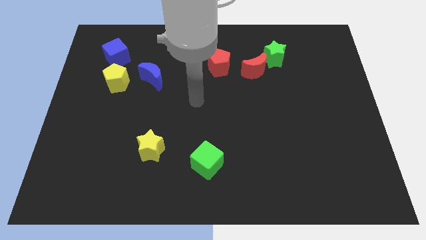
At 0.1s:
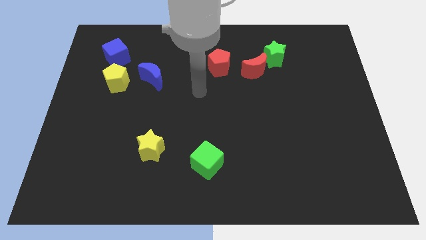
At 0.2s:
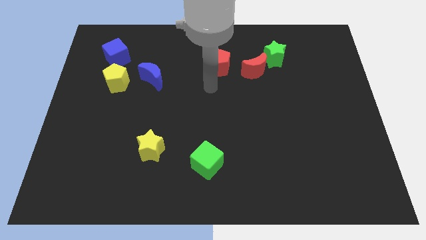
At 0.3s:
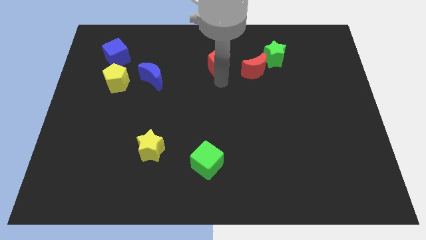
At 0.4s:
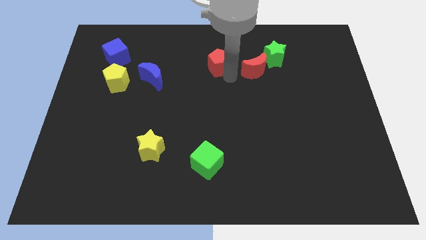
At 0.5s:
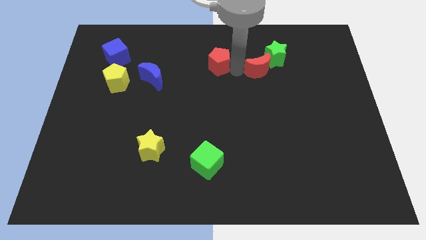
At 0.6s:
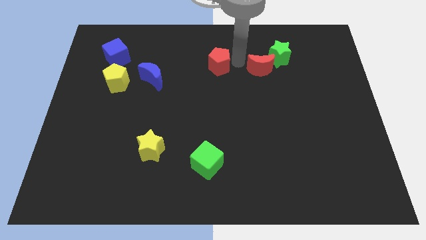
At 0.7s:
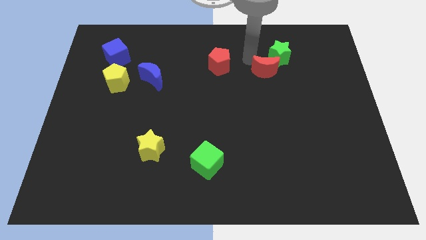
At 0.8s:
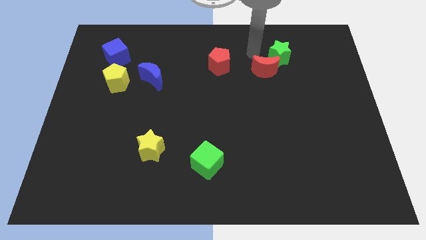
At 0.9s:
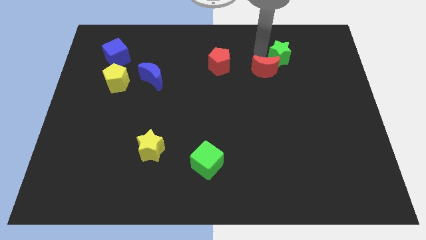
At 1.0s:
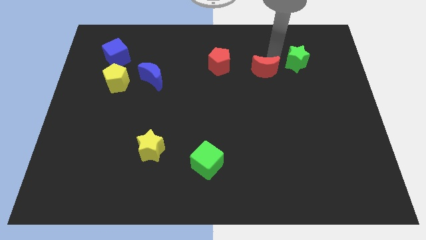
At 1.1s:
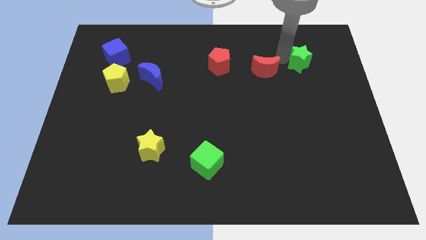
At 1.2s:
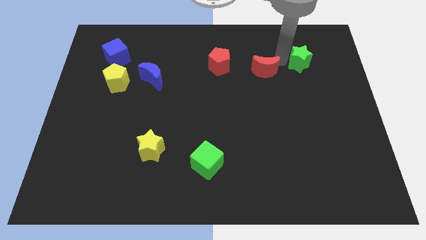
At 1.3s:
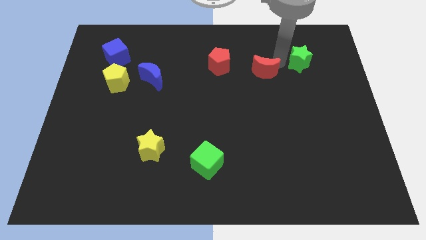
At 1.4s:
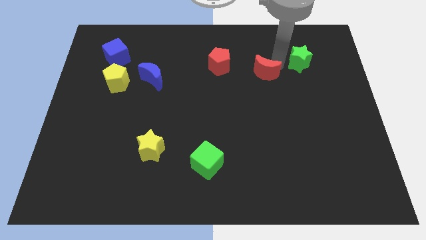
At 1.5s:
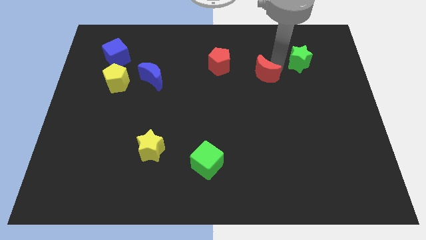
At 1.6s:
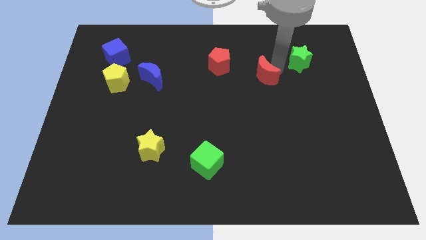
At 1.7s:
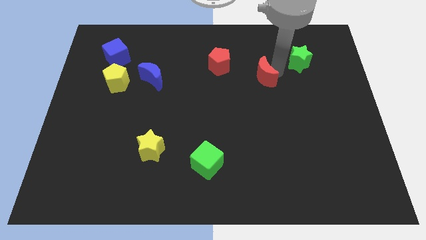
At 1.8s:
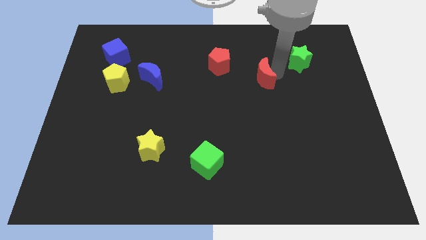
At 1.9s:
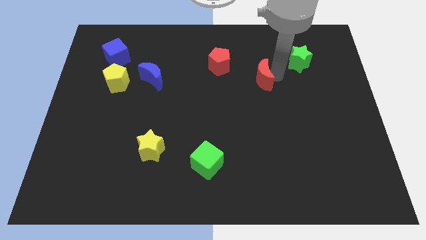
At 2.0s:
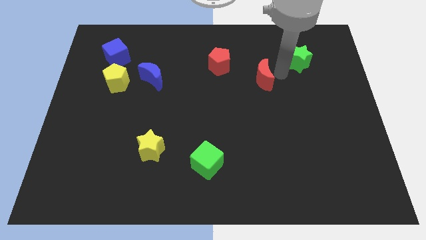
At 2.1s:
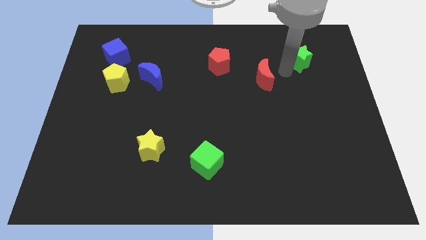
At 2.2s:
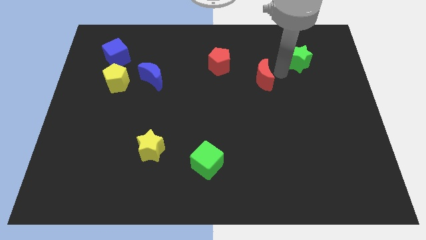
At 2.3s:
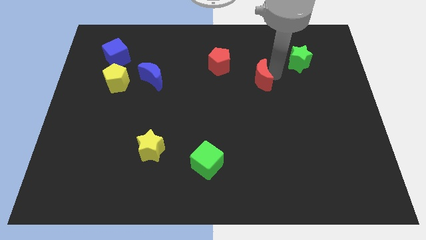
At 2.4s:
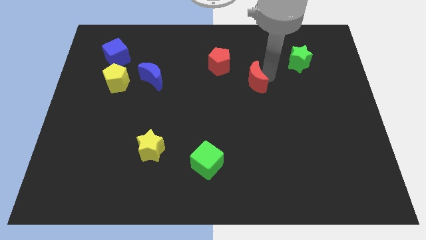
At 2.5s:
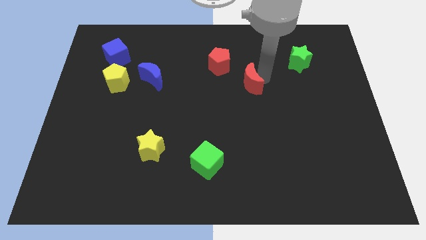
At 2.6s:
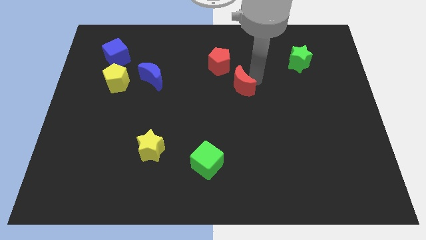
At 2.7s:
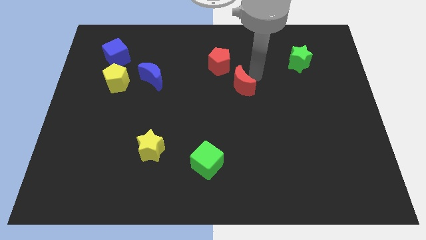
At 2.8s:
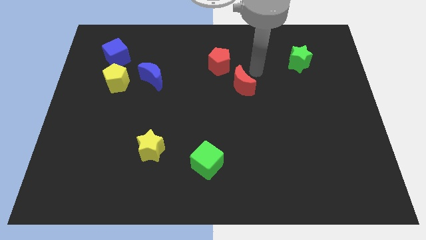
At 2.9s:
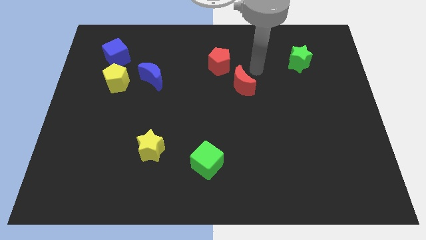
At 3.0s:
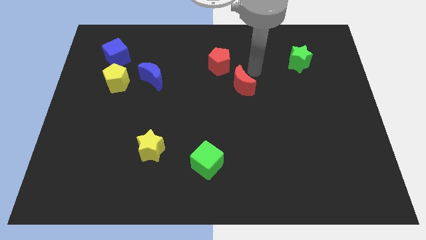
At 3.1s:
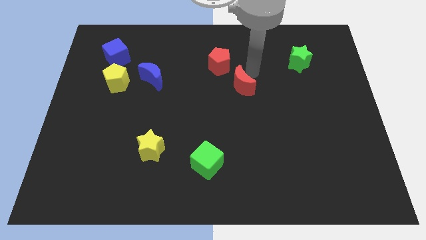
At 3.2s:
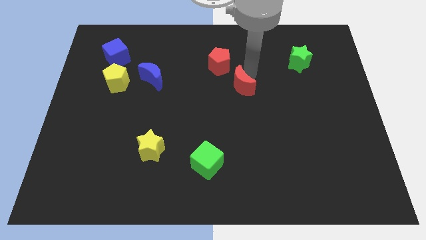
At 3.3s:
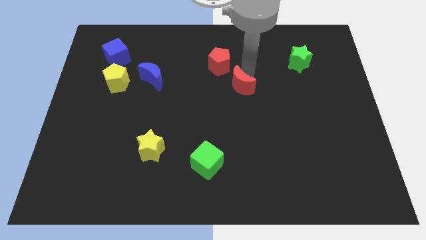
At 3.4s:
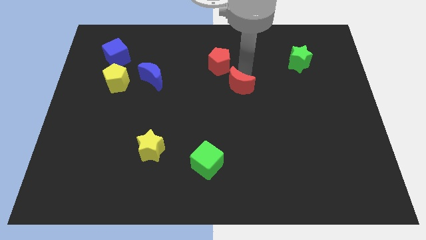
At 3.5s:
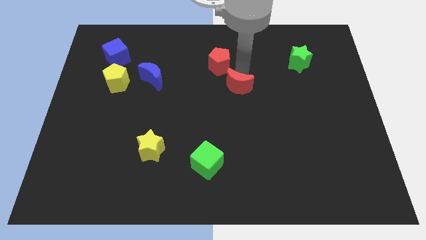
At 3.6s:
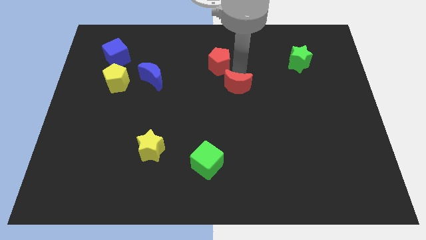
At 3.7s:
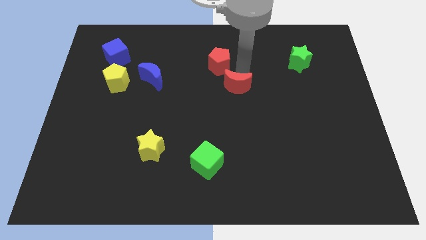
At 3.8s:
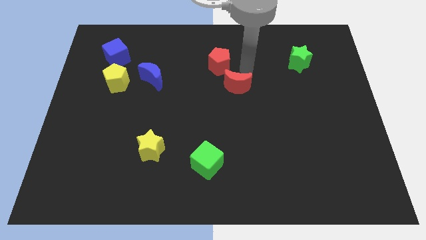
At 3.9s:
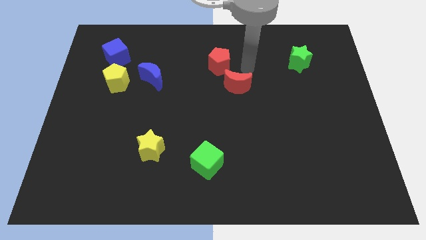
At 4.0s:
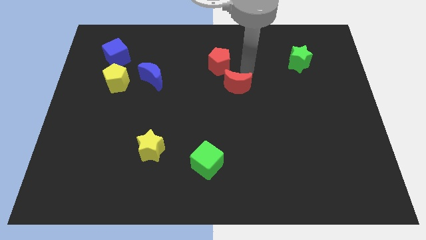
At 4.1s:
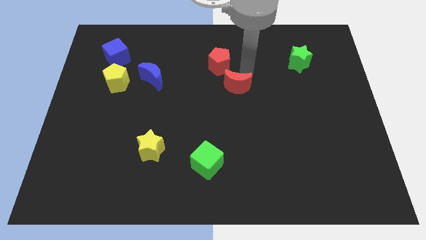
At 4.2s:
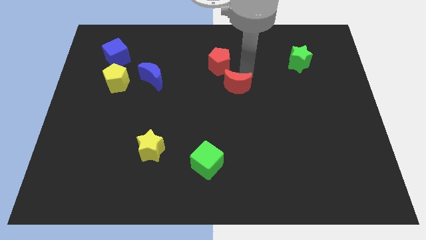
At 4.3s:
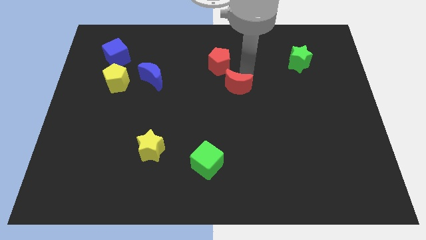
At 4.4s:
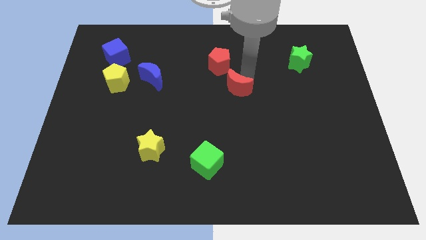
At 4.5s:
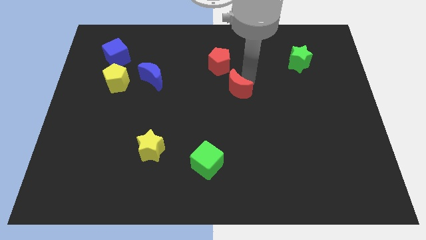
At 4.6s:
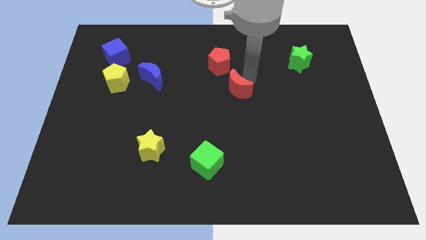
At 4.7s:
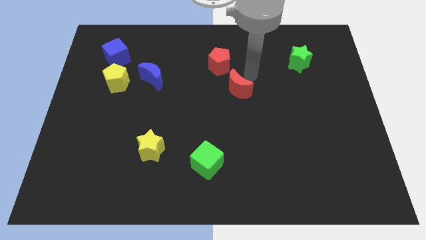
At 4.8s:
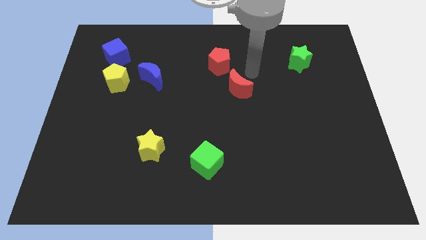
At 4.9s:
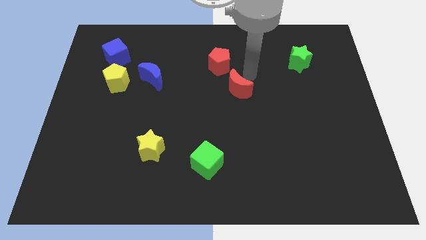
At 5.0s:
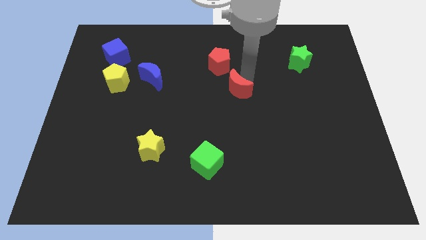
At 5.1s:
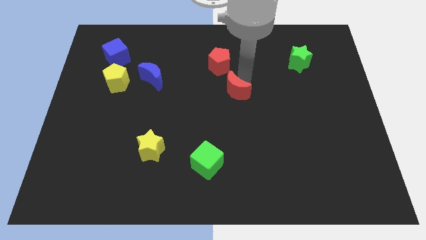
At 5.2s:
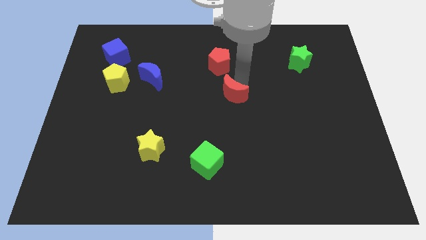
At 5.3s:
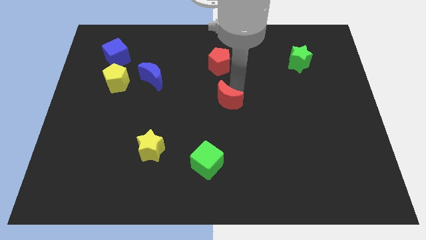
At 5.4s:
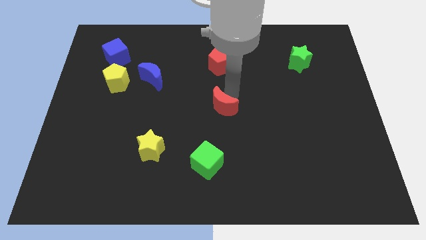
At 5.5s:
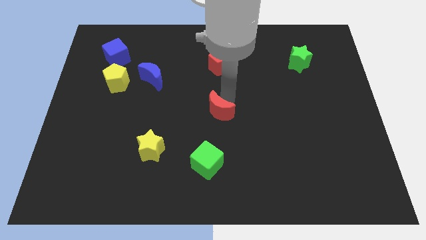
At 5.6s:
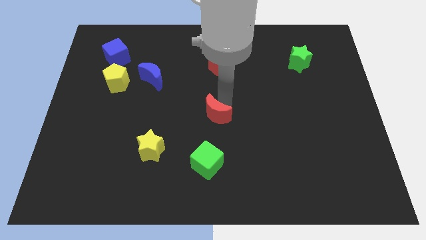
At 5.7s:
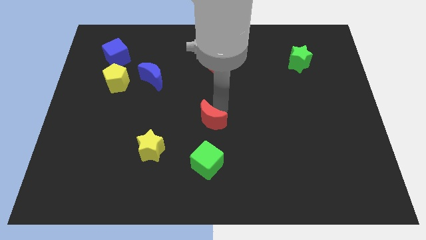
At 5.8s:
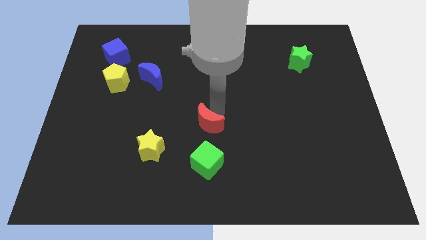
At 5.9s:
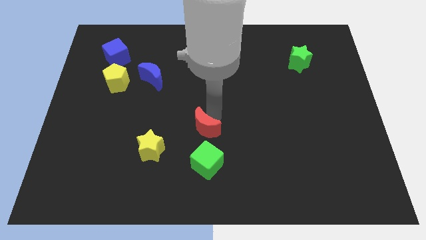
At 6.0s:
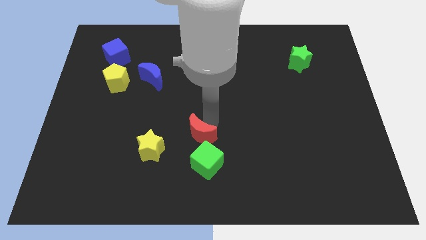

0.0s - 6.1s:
slide the red moon to the top left side of the green cube

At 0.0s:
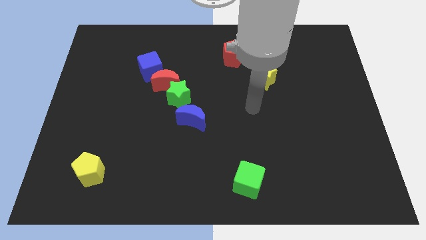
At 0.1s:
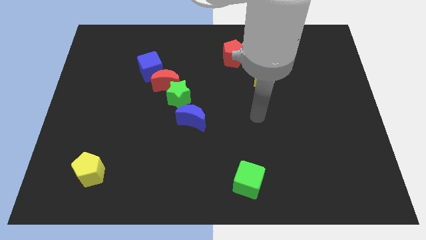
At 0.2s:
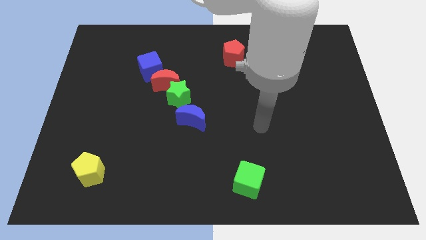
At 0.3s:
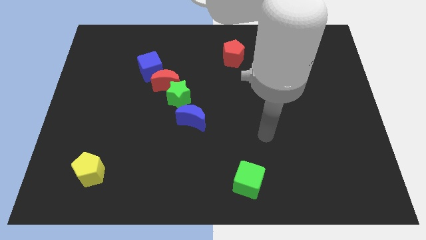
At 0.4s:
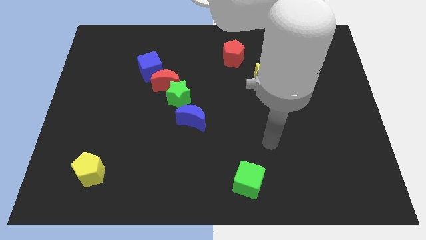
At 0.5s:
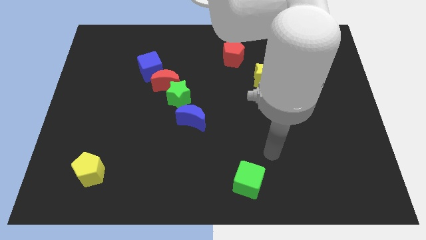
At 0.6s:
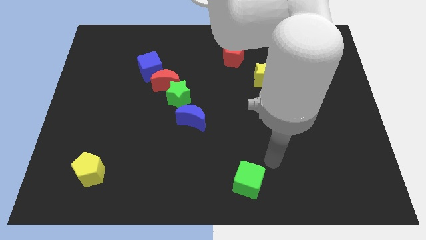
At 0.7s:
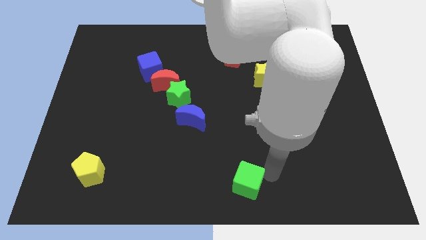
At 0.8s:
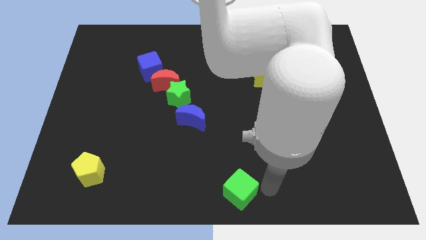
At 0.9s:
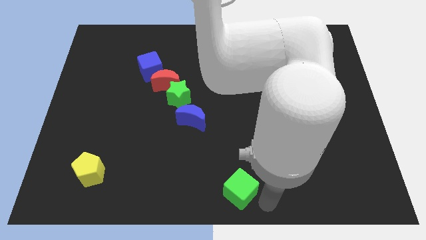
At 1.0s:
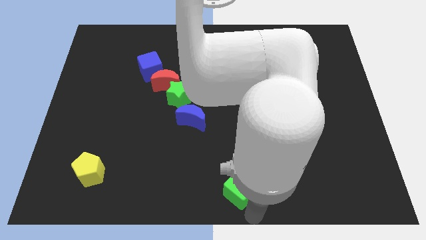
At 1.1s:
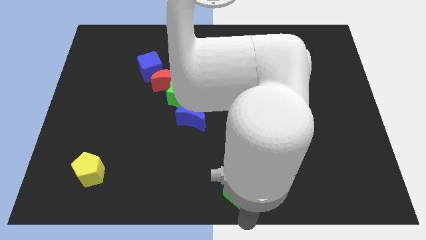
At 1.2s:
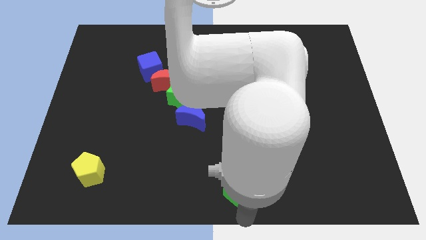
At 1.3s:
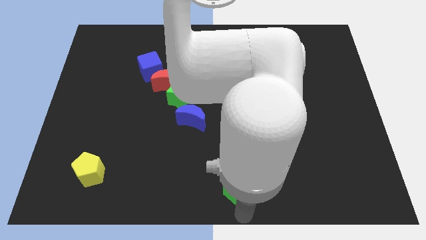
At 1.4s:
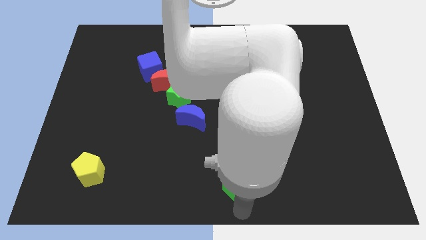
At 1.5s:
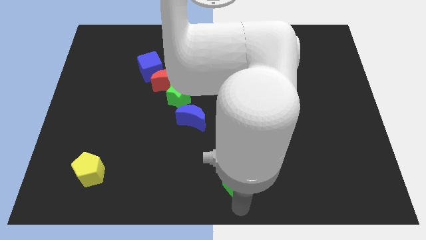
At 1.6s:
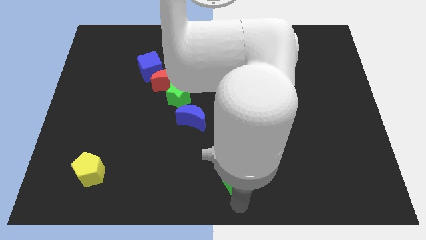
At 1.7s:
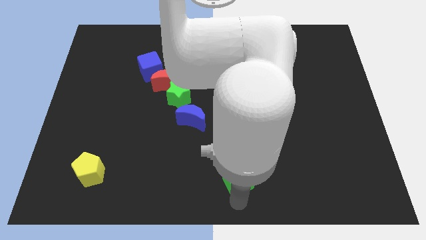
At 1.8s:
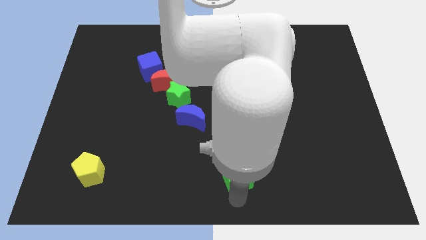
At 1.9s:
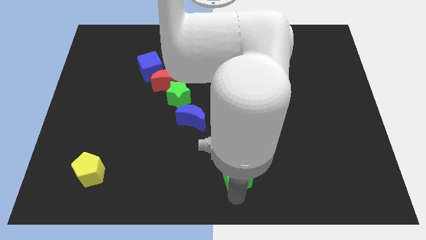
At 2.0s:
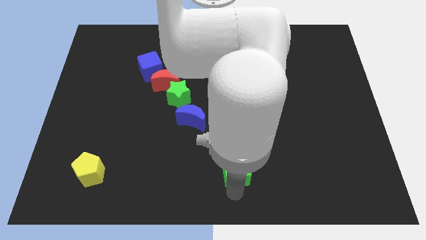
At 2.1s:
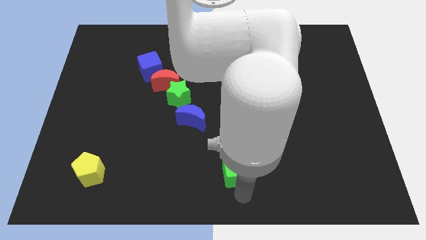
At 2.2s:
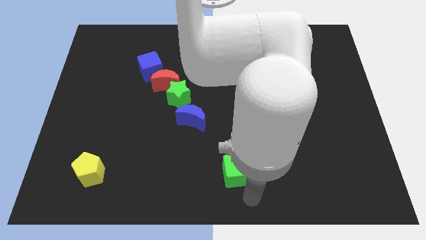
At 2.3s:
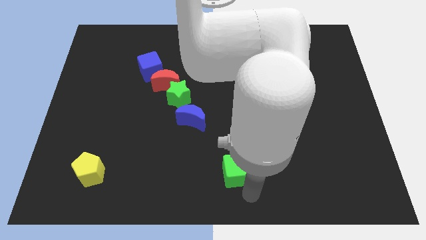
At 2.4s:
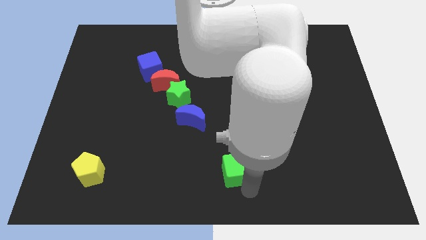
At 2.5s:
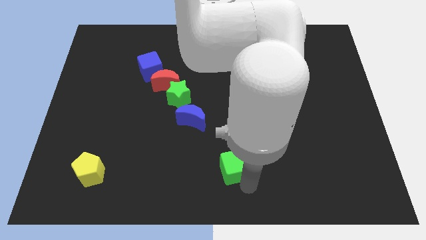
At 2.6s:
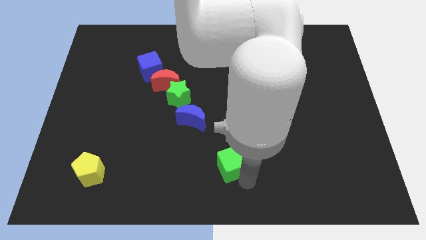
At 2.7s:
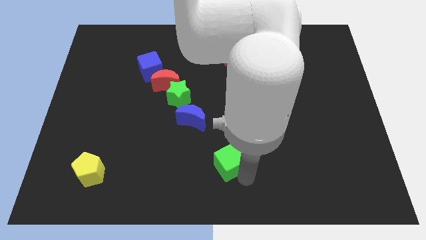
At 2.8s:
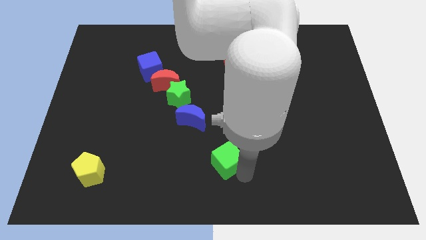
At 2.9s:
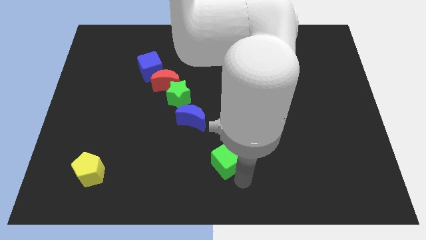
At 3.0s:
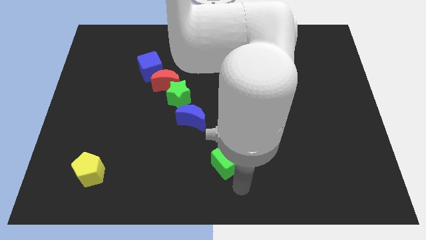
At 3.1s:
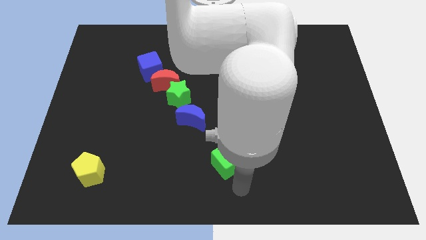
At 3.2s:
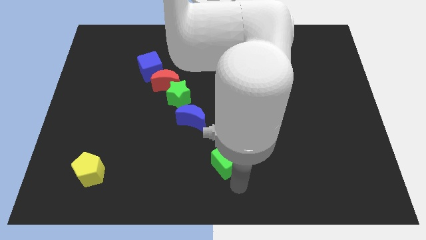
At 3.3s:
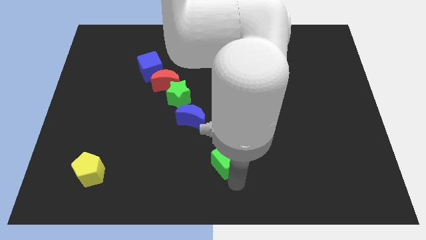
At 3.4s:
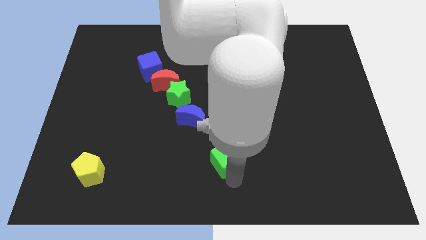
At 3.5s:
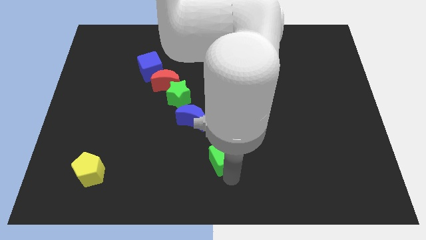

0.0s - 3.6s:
move the green cube diagonally down and to the right of the blue moon
